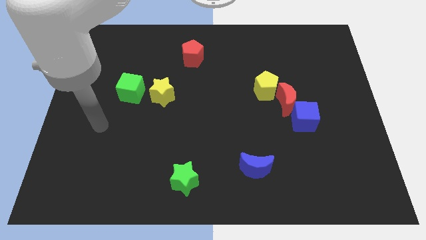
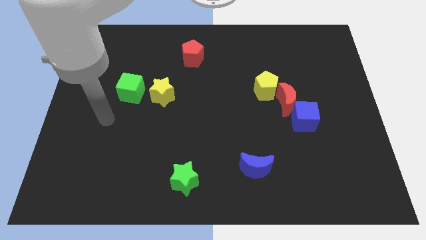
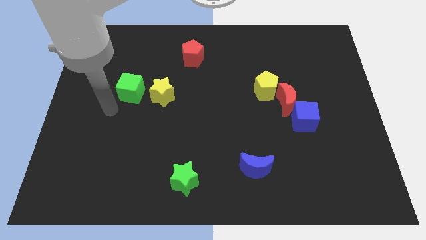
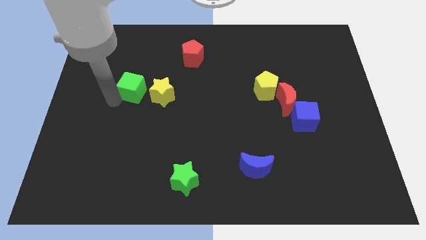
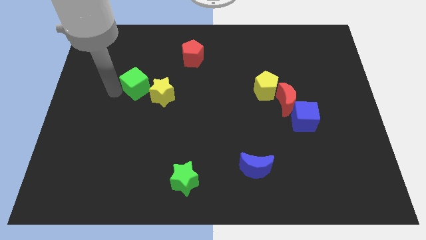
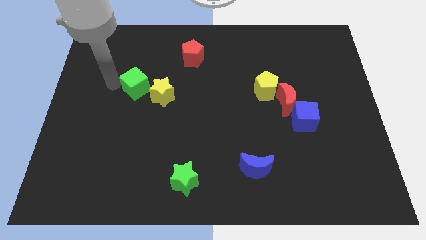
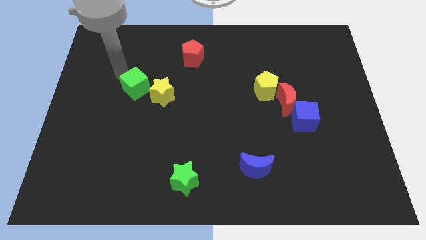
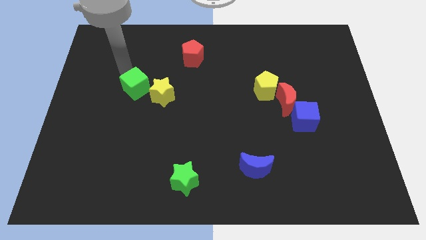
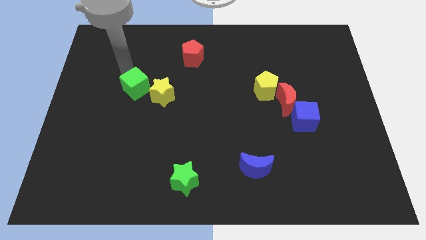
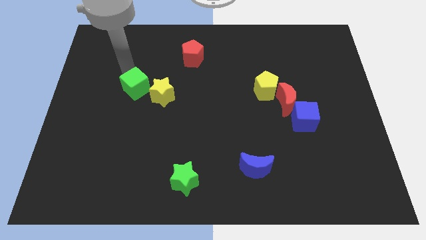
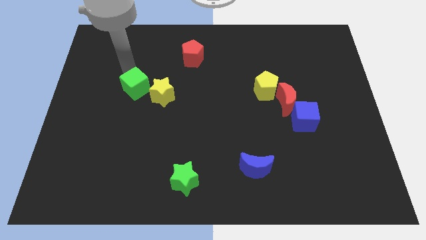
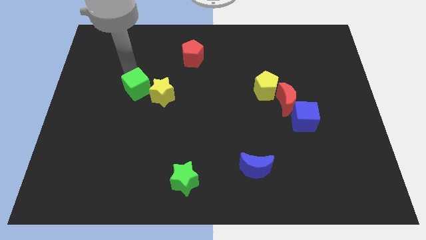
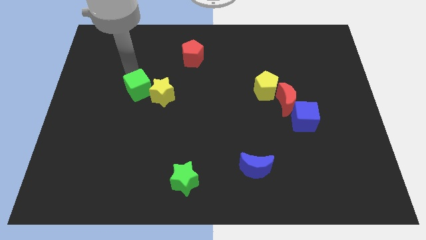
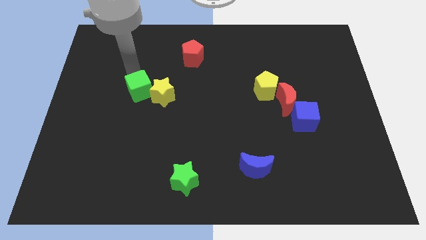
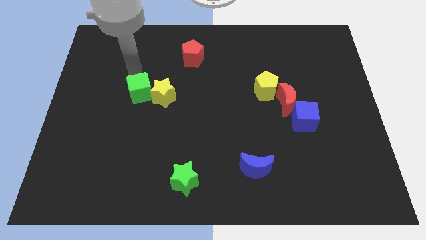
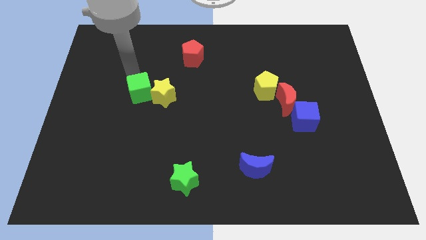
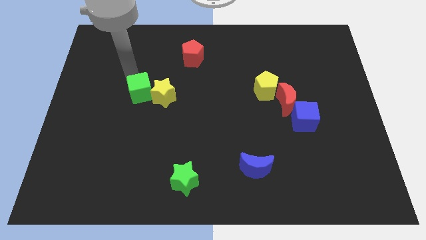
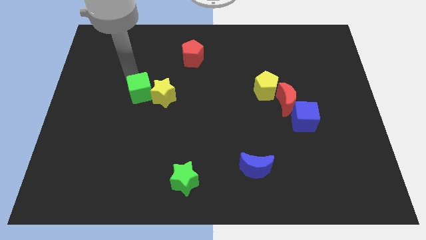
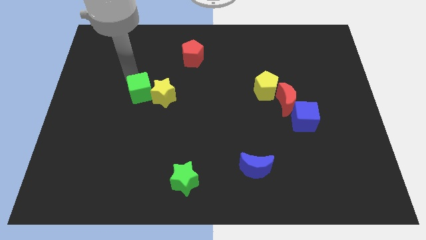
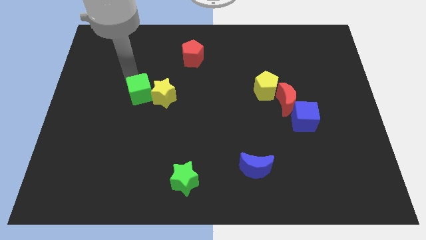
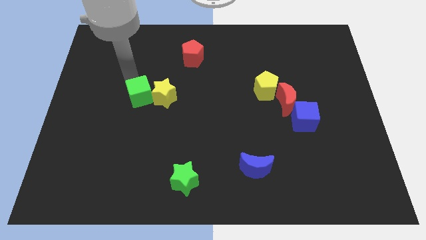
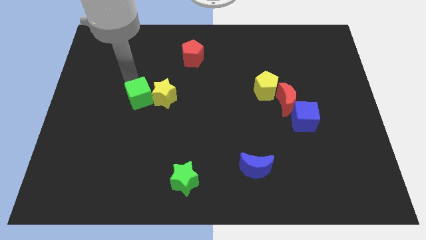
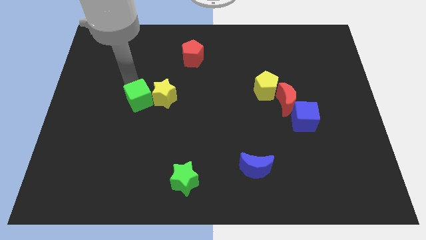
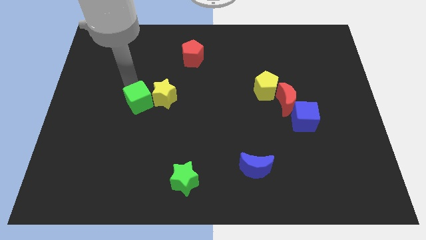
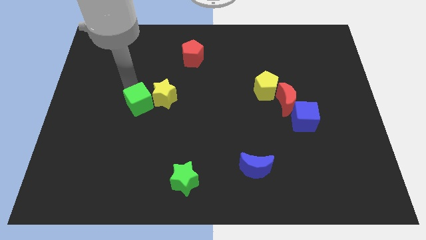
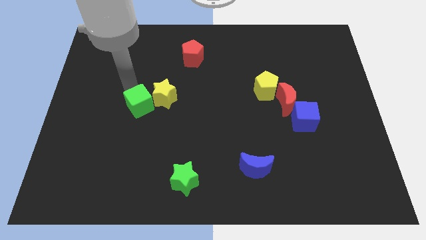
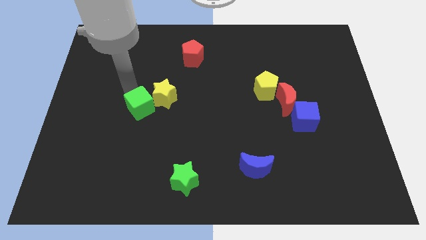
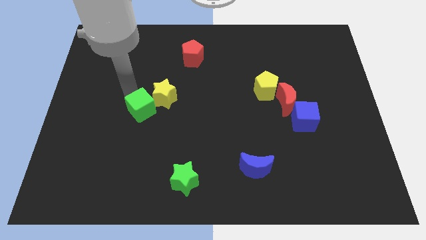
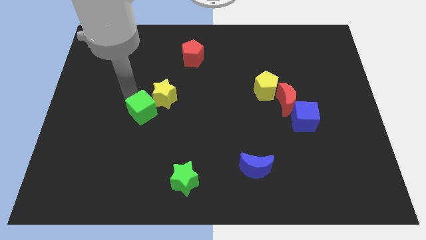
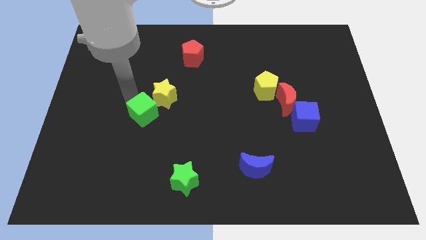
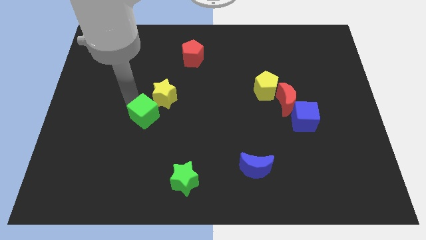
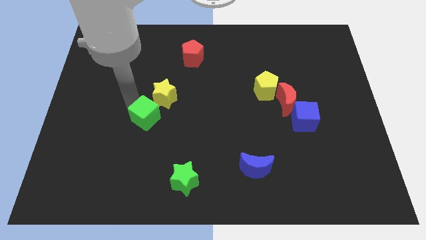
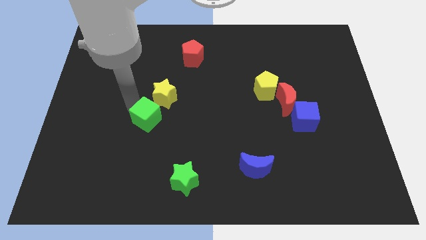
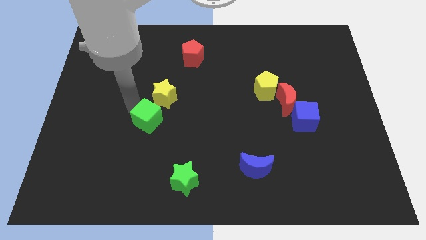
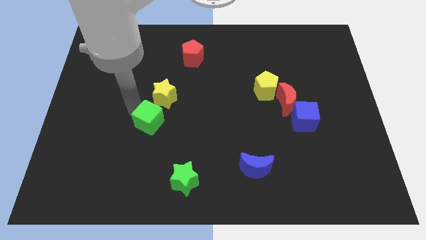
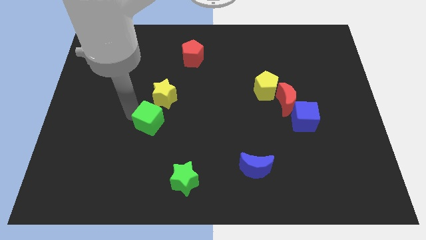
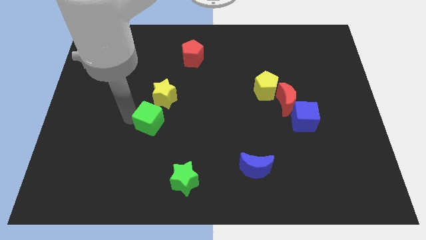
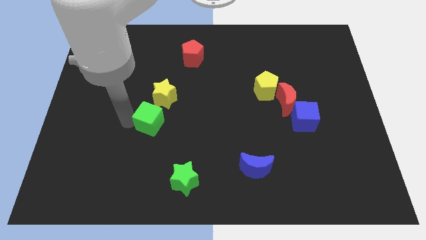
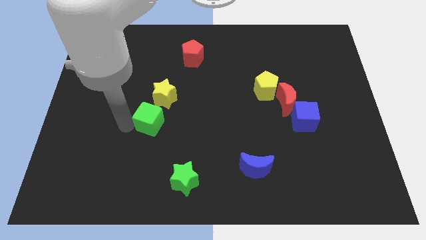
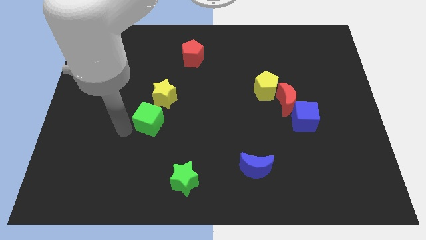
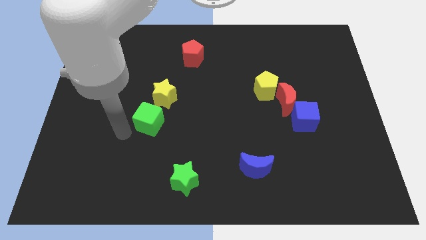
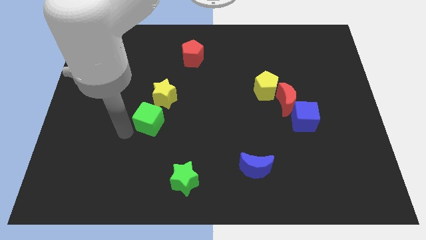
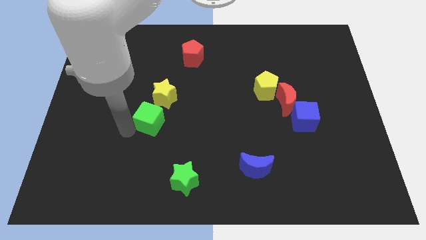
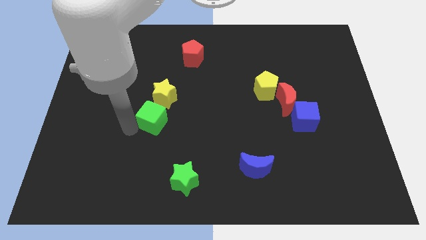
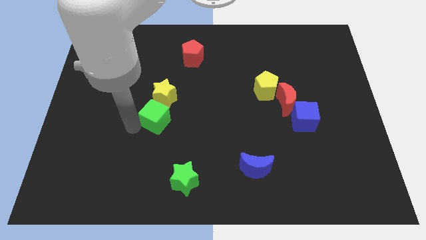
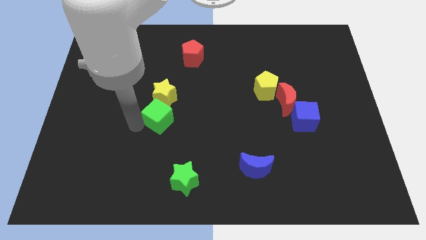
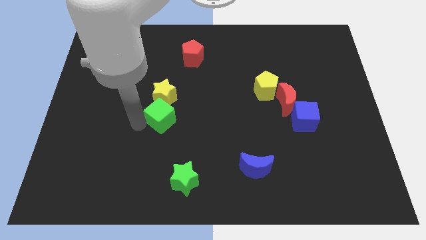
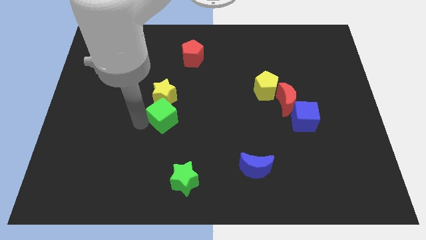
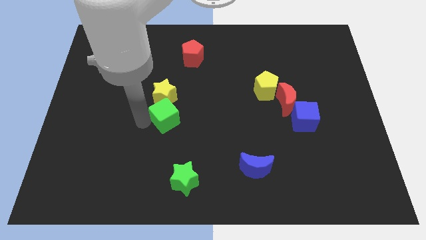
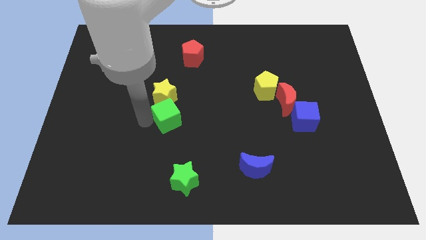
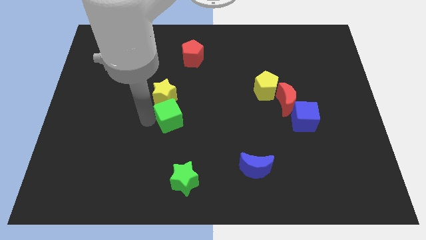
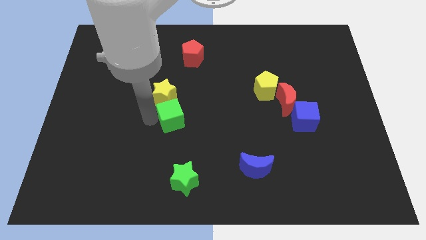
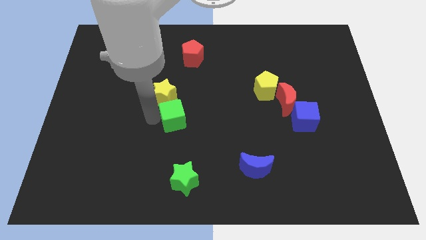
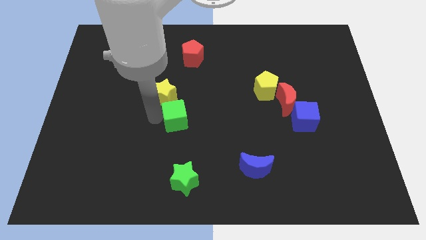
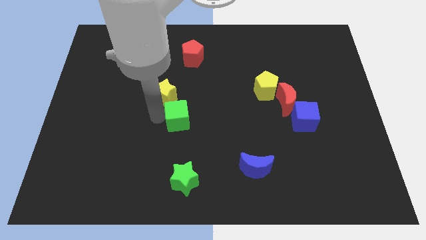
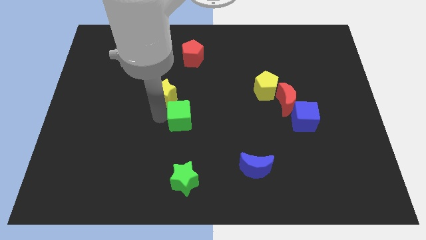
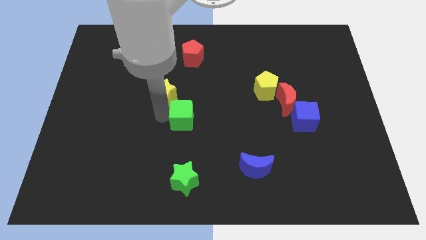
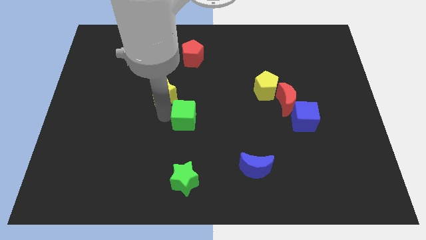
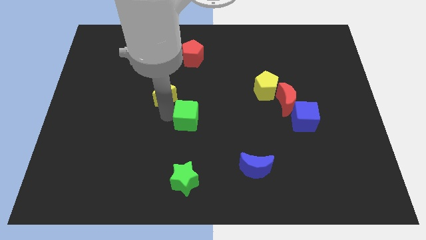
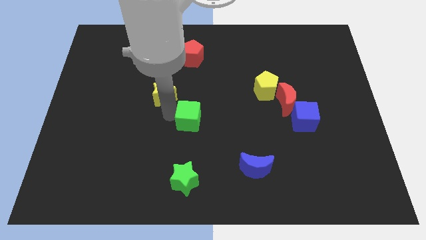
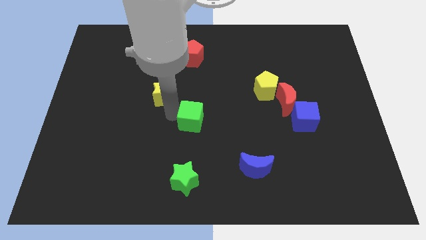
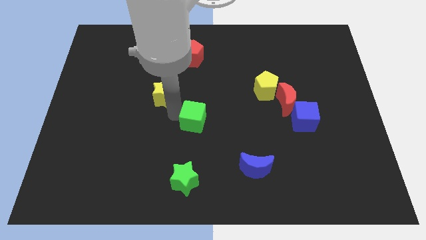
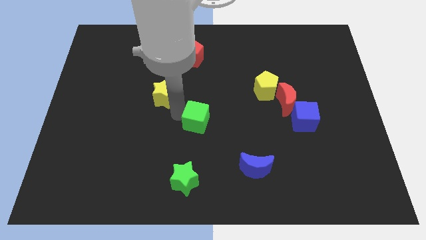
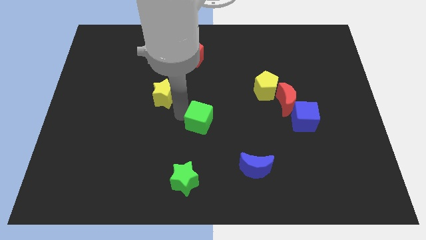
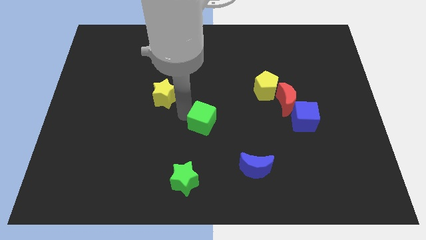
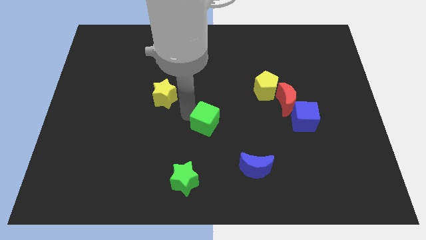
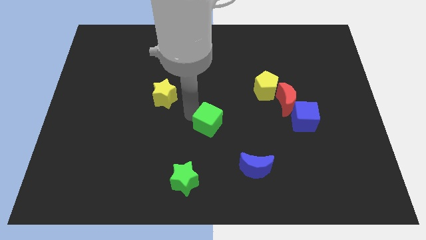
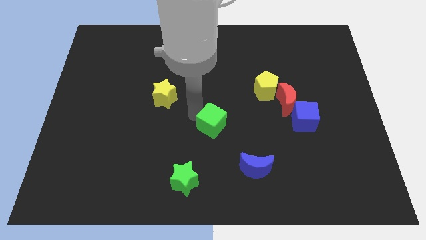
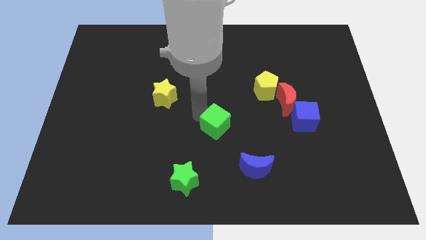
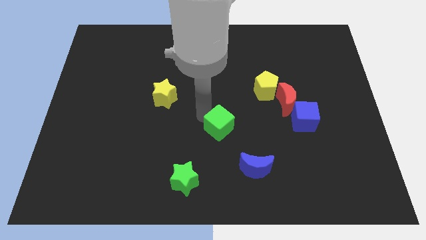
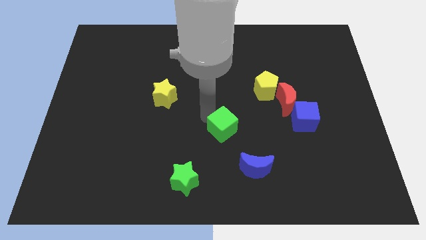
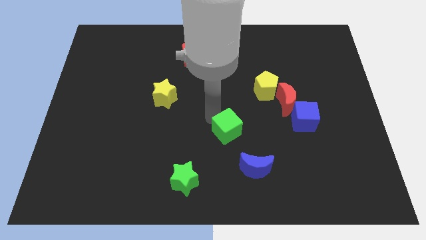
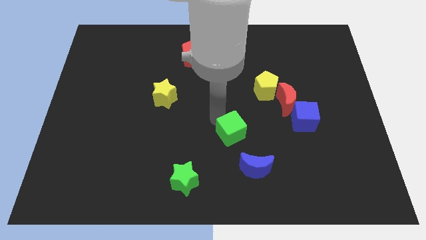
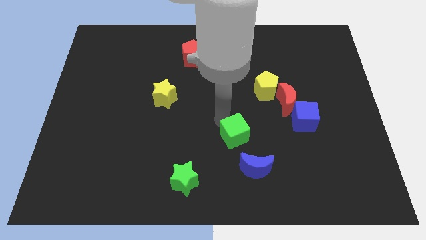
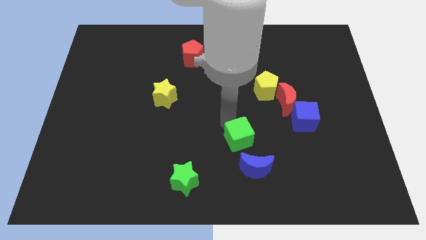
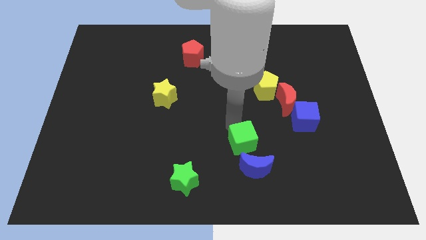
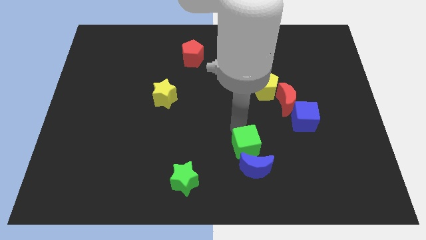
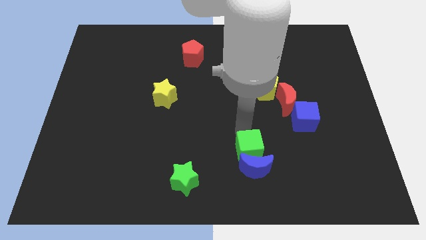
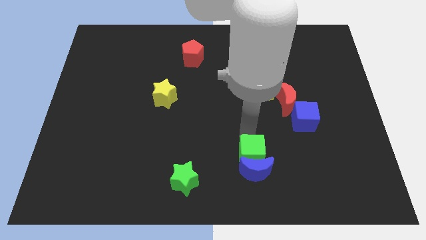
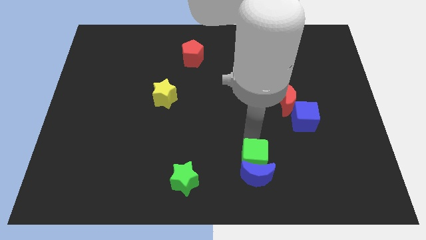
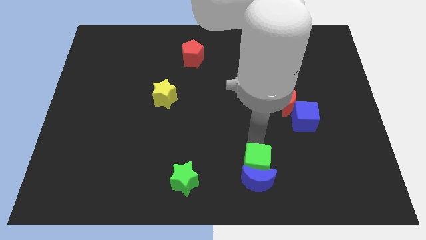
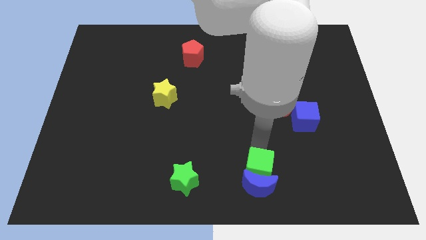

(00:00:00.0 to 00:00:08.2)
move the green cube to the bottom side
